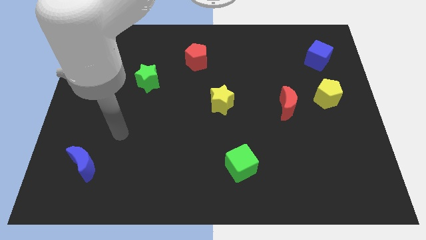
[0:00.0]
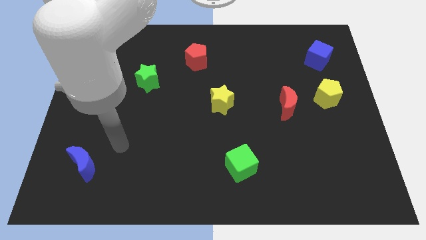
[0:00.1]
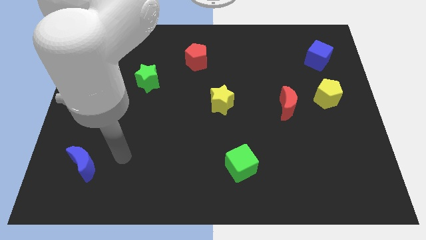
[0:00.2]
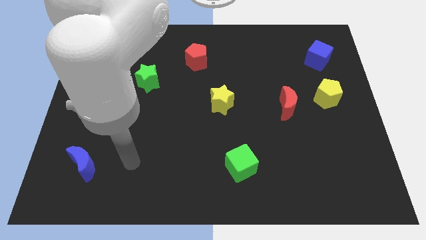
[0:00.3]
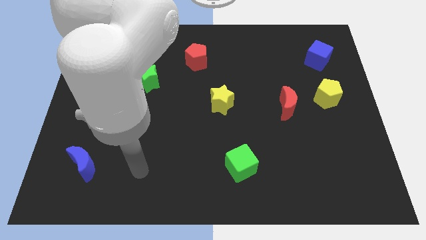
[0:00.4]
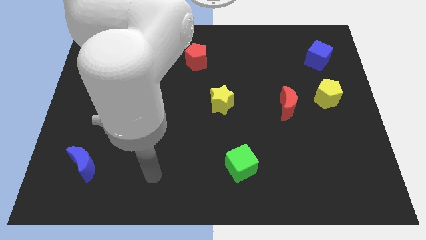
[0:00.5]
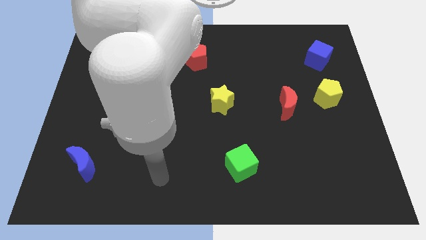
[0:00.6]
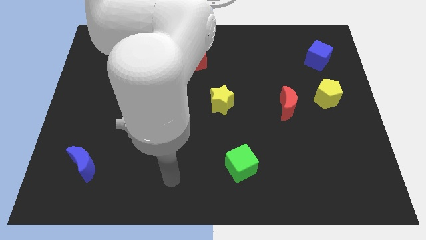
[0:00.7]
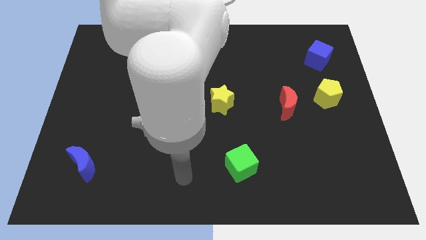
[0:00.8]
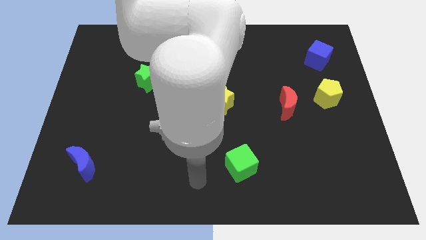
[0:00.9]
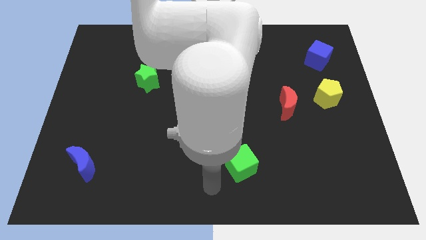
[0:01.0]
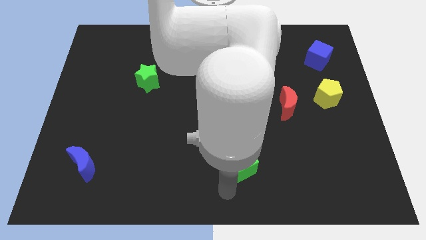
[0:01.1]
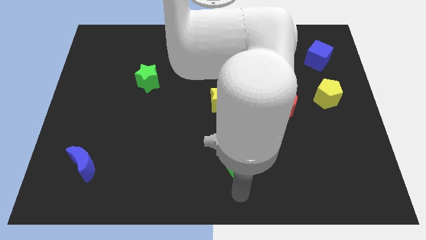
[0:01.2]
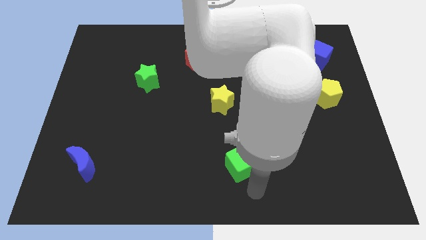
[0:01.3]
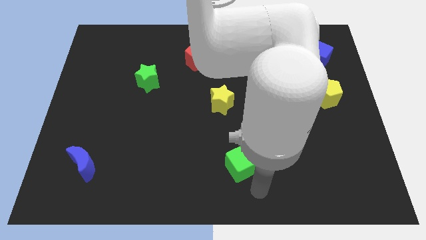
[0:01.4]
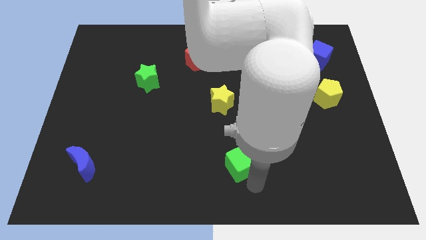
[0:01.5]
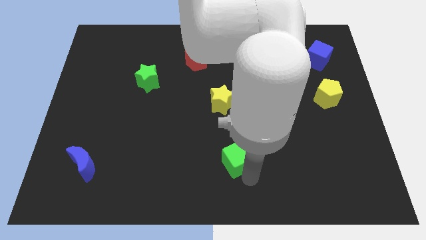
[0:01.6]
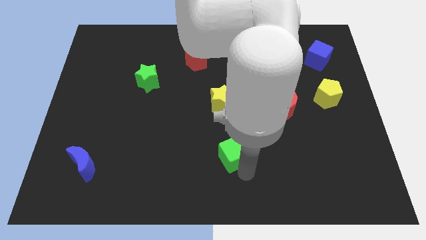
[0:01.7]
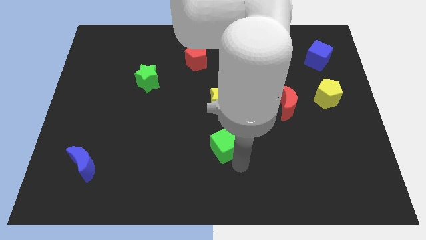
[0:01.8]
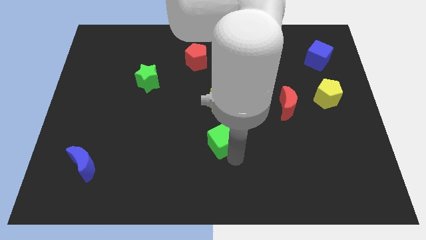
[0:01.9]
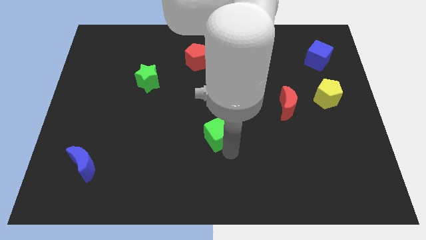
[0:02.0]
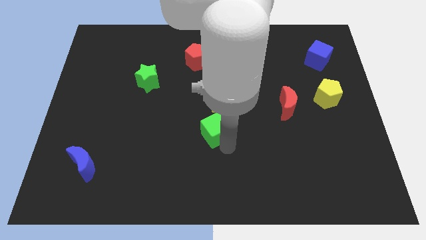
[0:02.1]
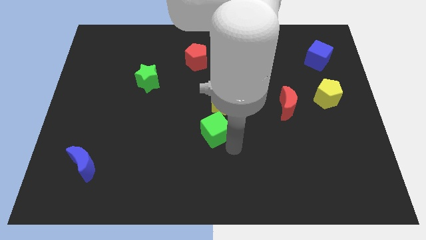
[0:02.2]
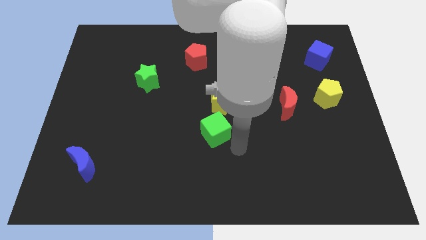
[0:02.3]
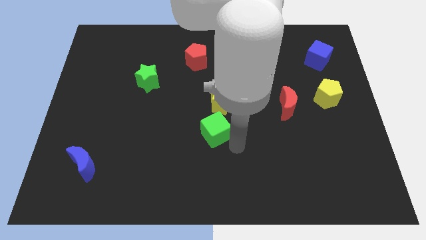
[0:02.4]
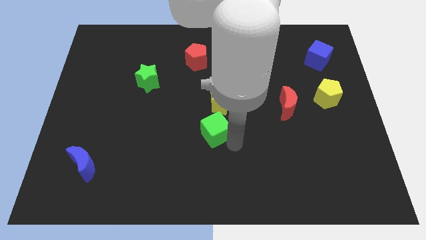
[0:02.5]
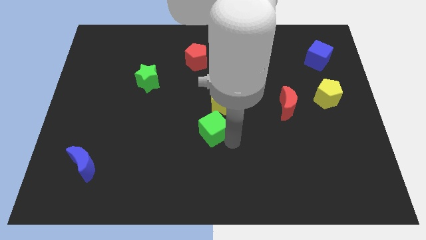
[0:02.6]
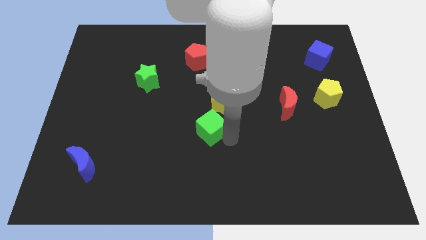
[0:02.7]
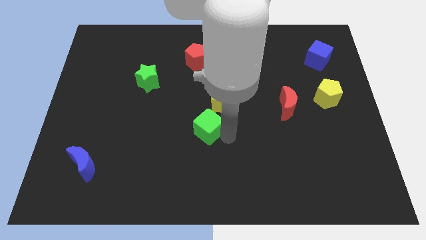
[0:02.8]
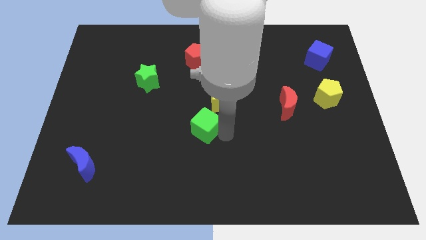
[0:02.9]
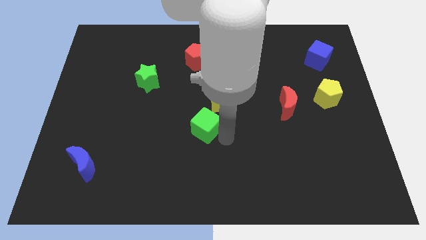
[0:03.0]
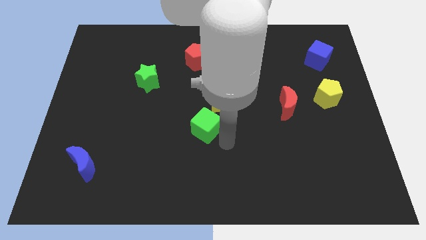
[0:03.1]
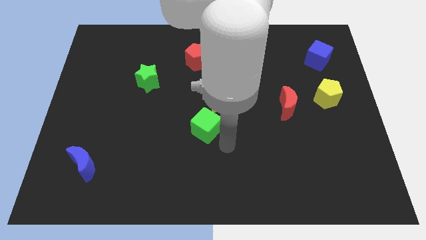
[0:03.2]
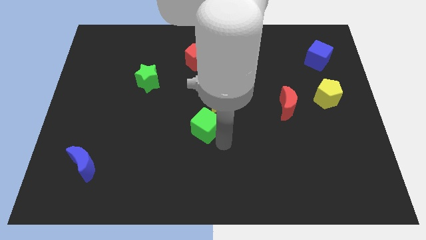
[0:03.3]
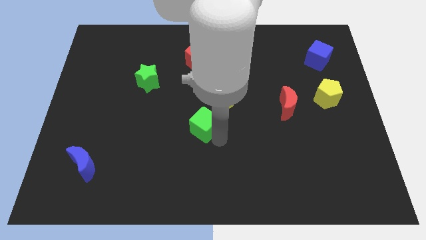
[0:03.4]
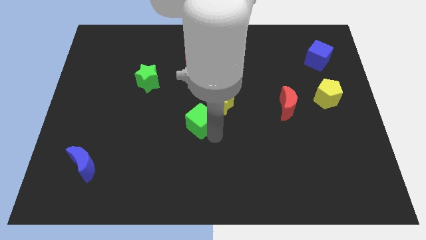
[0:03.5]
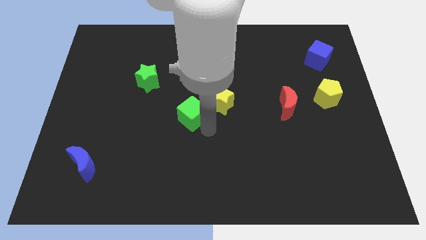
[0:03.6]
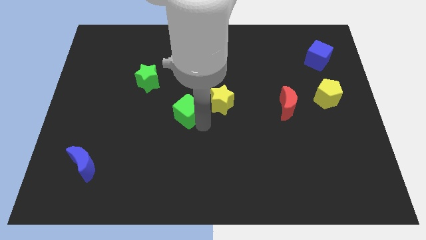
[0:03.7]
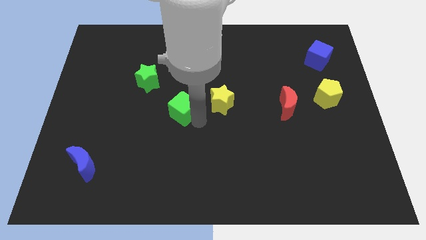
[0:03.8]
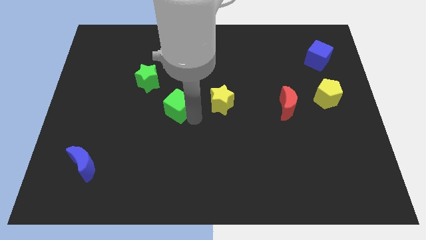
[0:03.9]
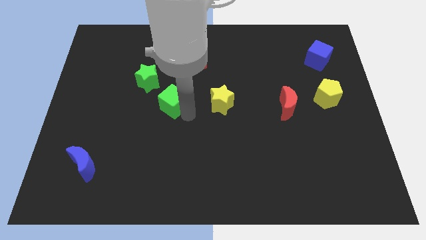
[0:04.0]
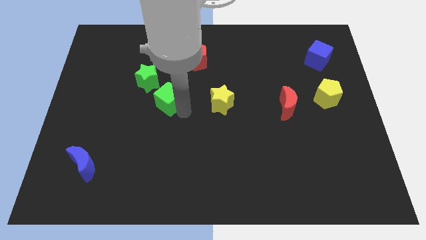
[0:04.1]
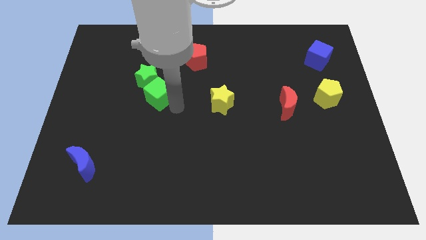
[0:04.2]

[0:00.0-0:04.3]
slide the green cube next to the green star

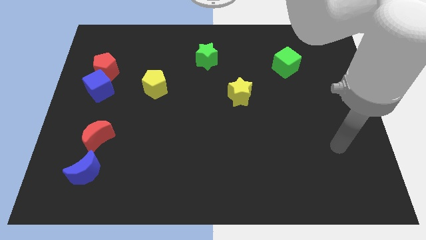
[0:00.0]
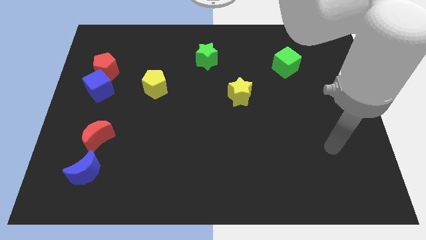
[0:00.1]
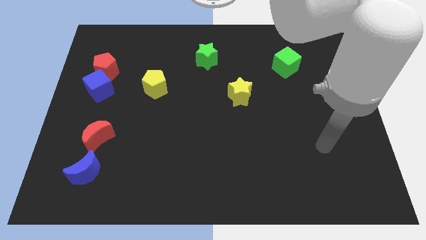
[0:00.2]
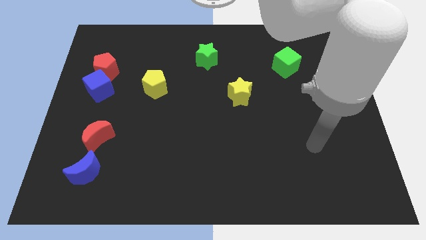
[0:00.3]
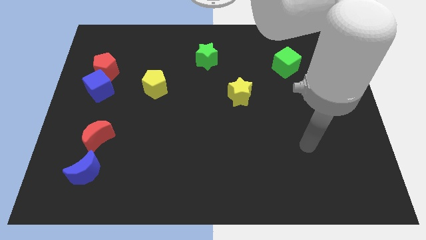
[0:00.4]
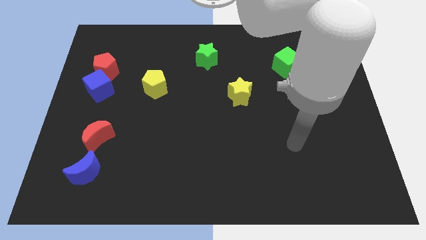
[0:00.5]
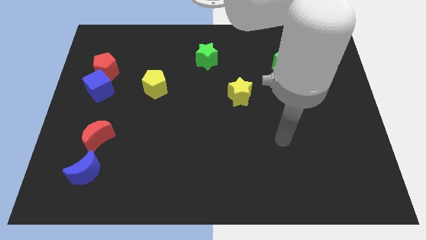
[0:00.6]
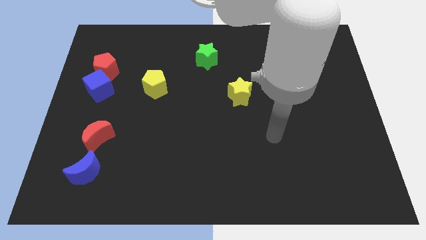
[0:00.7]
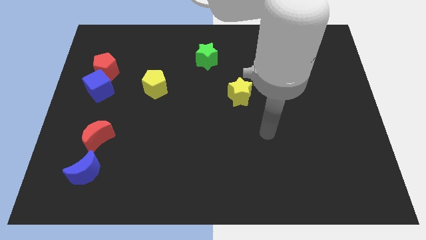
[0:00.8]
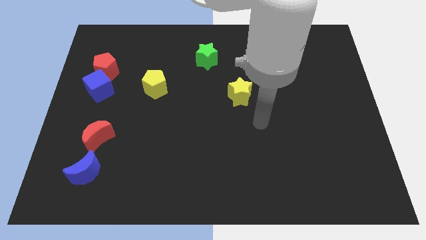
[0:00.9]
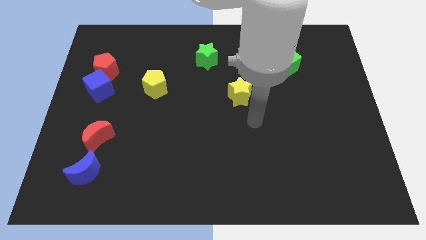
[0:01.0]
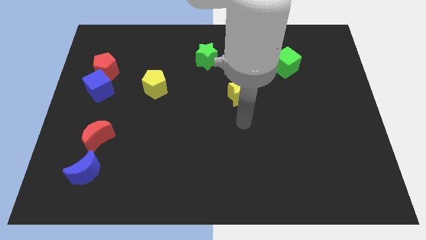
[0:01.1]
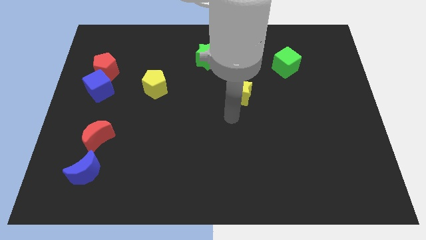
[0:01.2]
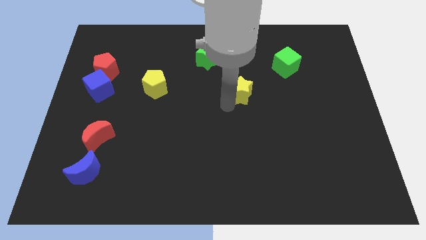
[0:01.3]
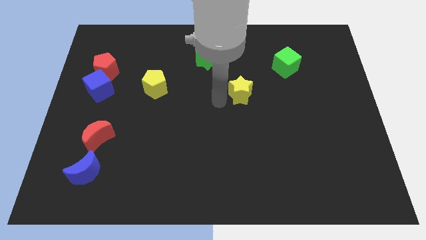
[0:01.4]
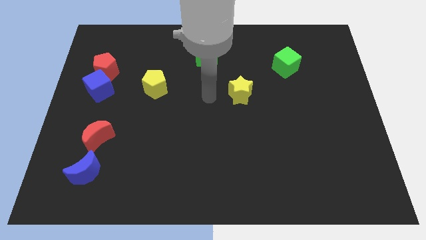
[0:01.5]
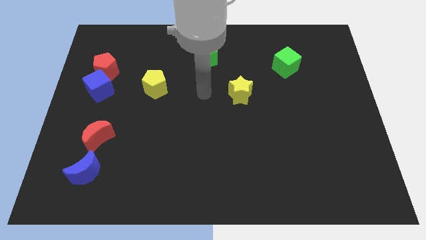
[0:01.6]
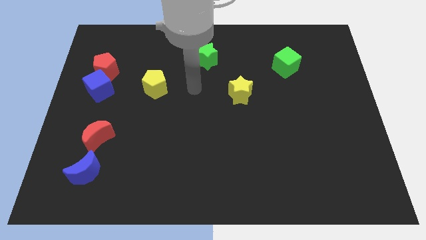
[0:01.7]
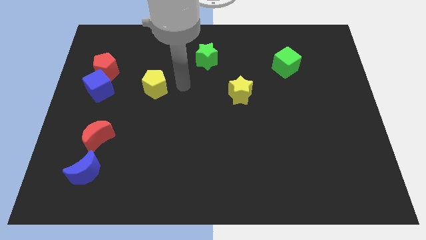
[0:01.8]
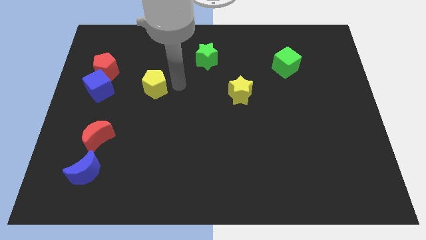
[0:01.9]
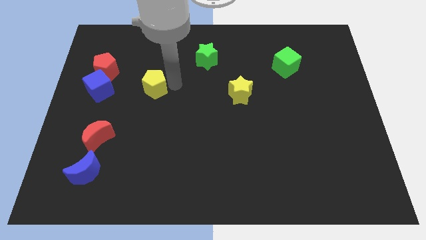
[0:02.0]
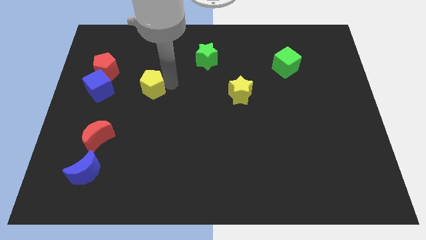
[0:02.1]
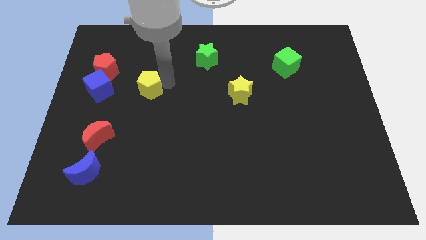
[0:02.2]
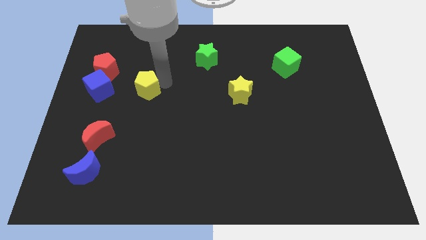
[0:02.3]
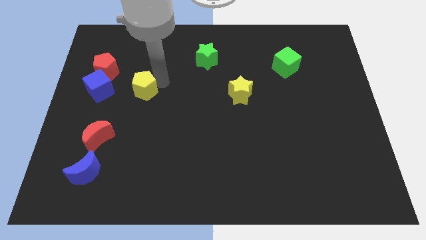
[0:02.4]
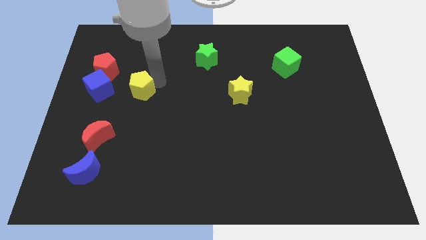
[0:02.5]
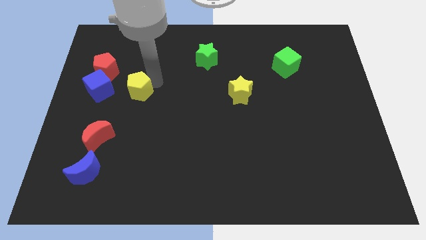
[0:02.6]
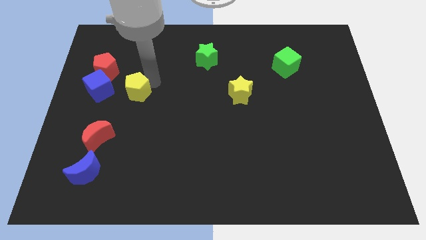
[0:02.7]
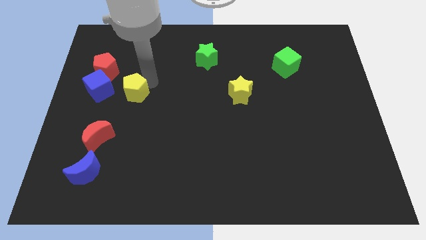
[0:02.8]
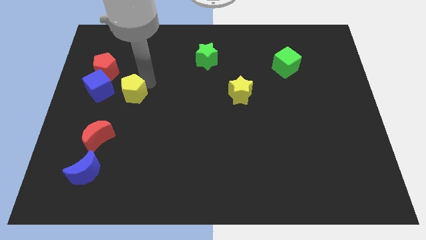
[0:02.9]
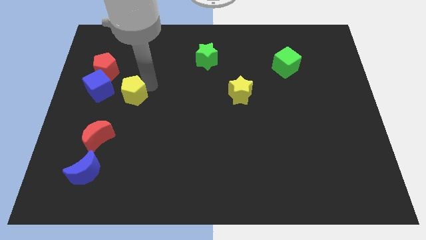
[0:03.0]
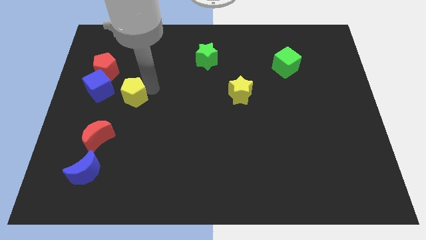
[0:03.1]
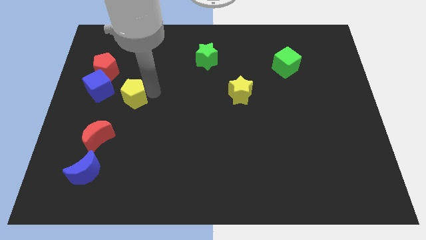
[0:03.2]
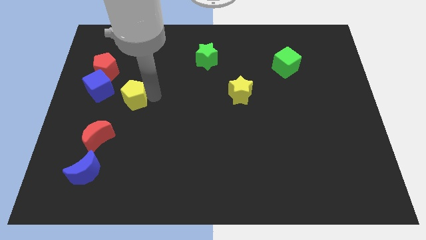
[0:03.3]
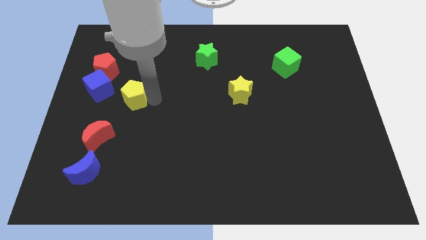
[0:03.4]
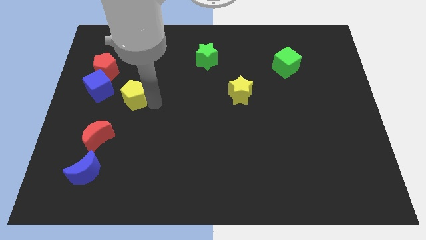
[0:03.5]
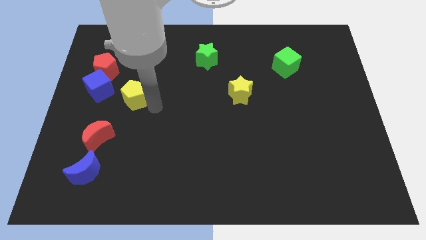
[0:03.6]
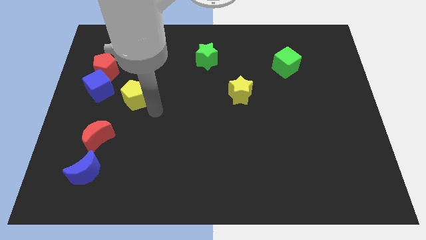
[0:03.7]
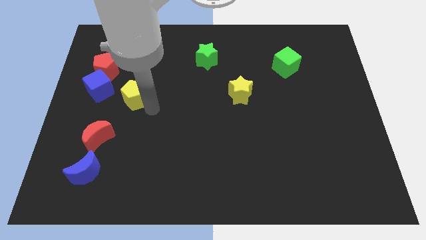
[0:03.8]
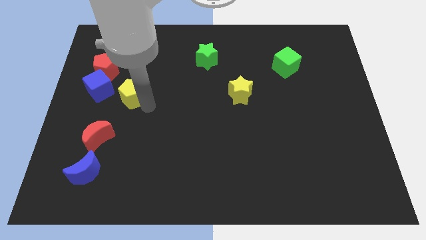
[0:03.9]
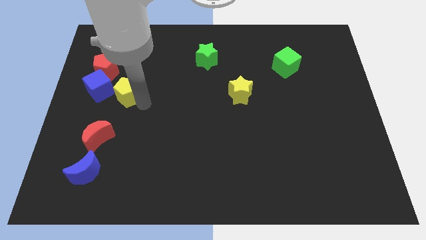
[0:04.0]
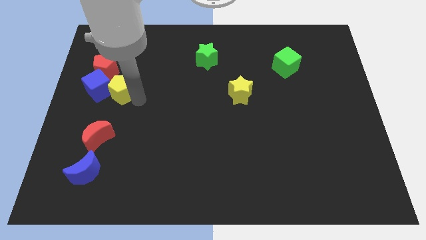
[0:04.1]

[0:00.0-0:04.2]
slide the yellow pentagon towards the blue cube
